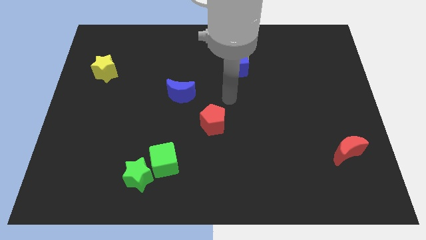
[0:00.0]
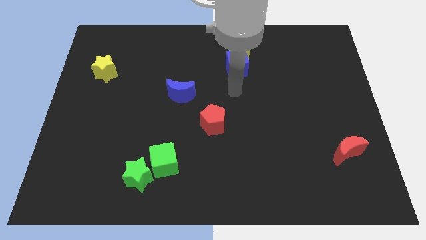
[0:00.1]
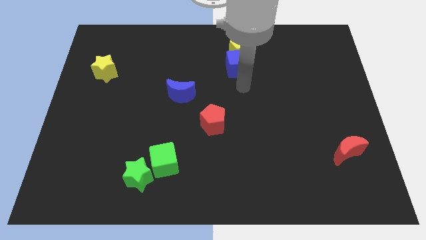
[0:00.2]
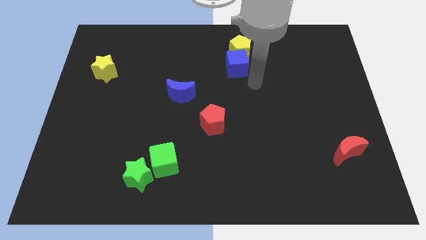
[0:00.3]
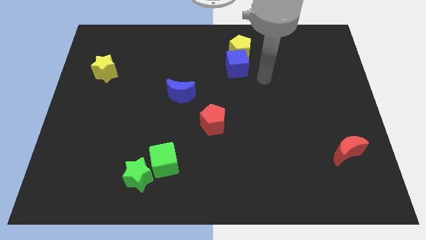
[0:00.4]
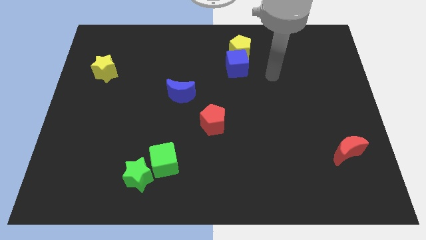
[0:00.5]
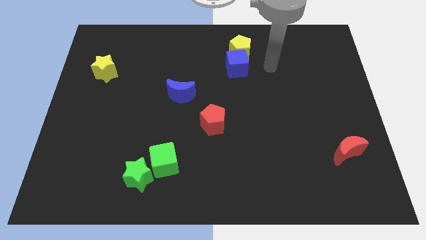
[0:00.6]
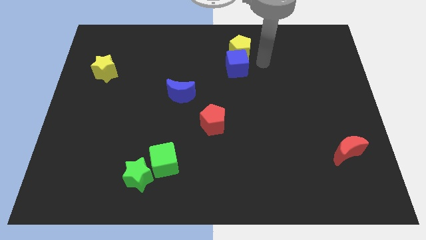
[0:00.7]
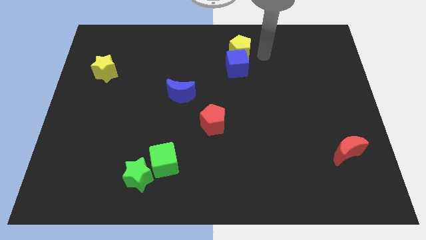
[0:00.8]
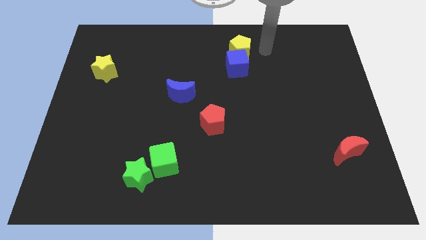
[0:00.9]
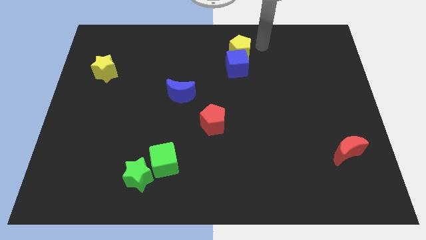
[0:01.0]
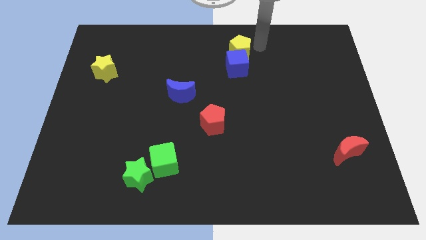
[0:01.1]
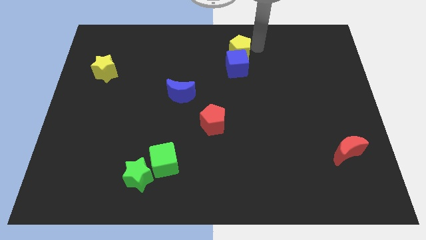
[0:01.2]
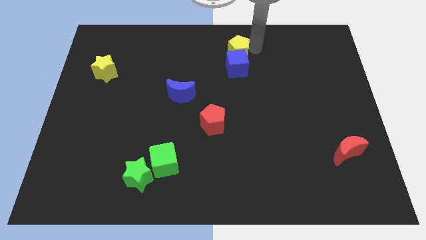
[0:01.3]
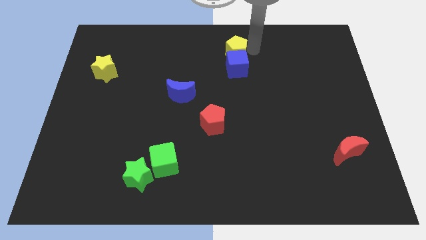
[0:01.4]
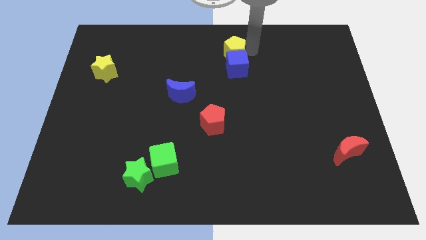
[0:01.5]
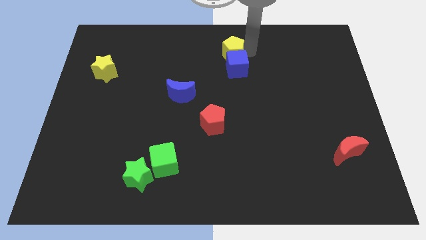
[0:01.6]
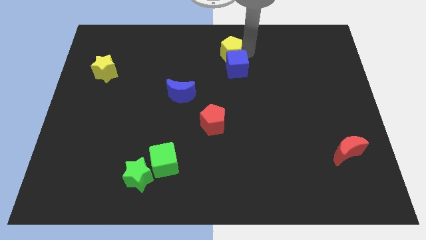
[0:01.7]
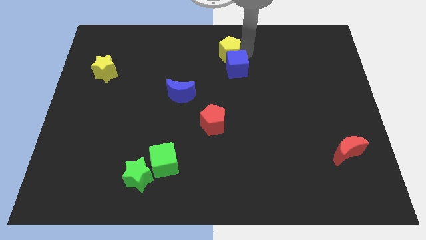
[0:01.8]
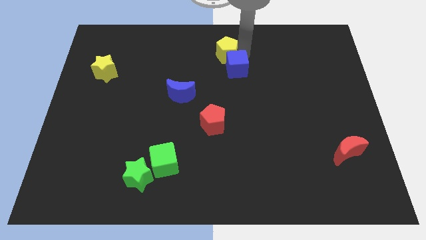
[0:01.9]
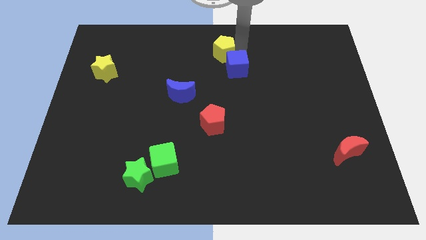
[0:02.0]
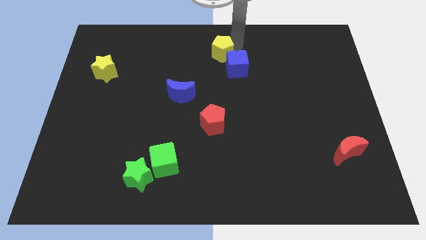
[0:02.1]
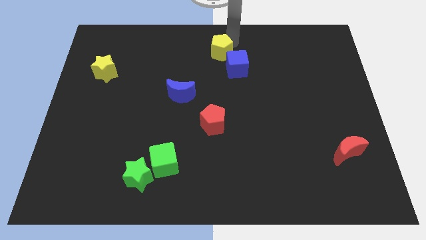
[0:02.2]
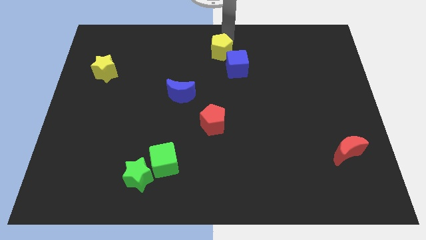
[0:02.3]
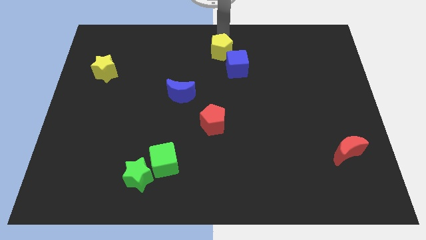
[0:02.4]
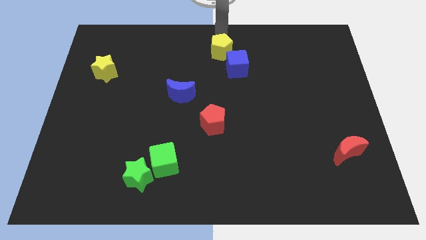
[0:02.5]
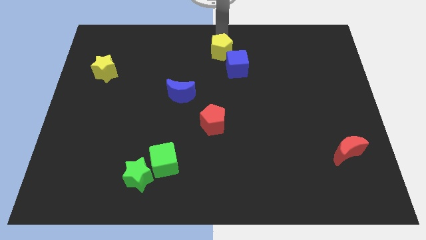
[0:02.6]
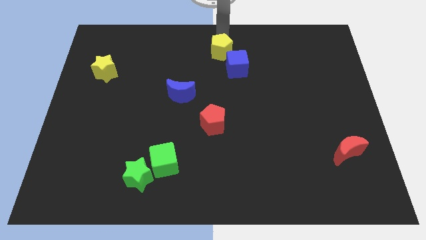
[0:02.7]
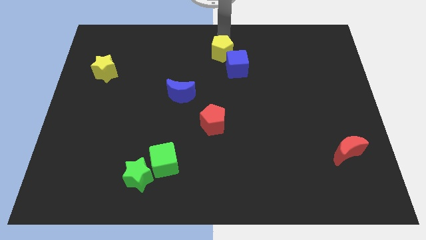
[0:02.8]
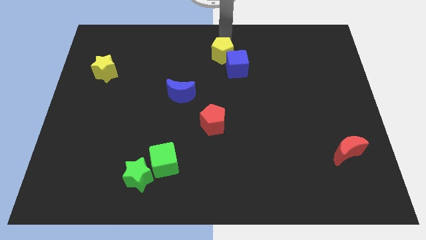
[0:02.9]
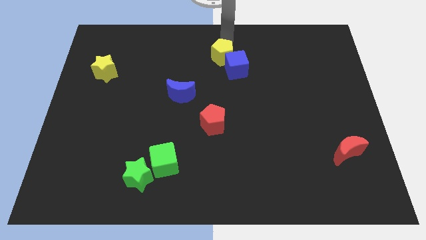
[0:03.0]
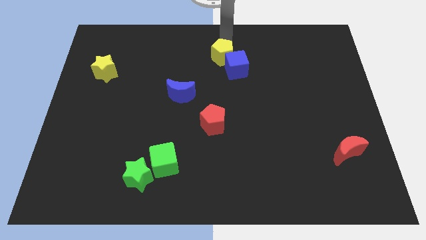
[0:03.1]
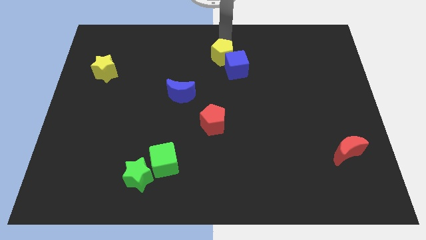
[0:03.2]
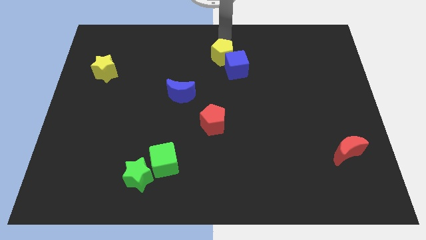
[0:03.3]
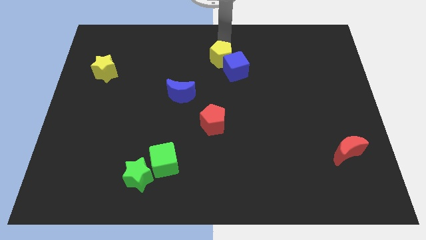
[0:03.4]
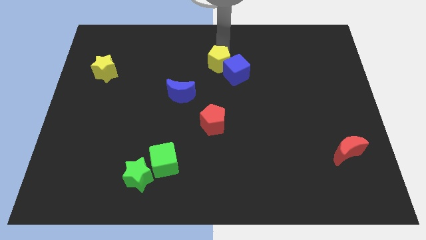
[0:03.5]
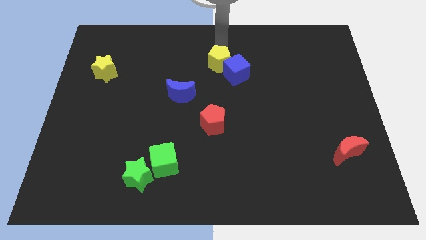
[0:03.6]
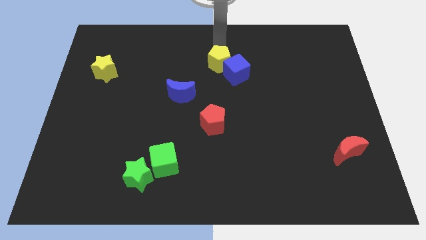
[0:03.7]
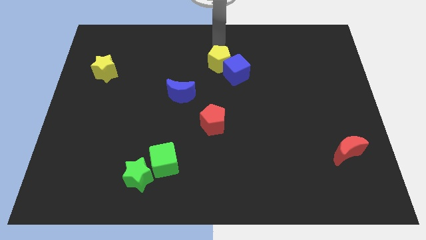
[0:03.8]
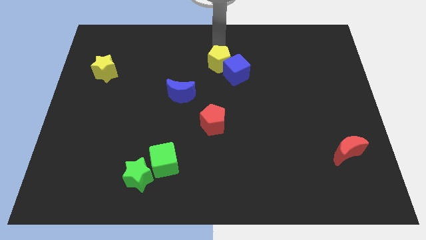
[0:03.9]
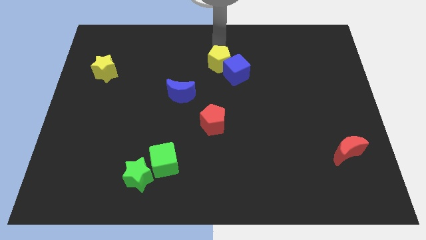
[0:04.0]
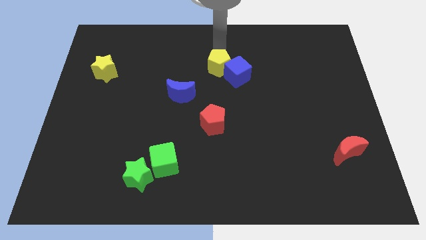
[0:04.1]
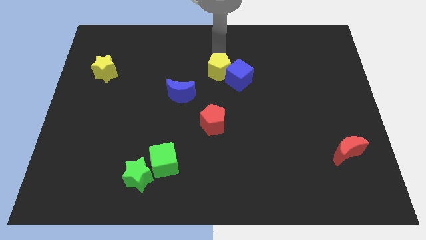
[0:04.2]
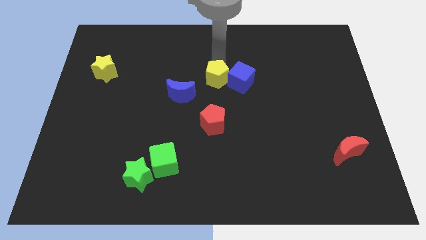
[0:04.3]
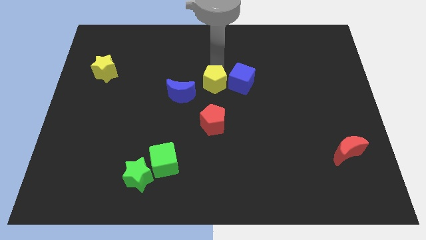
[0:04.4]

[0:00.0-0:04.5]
push the yellow pentagon to the right of the blue moon

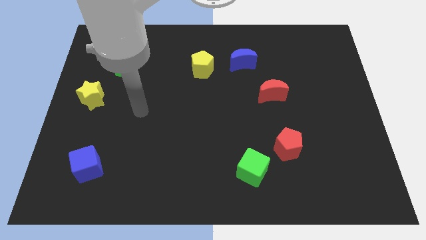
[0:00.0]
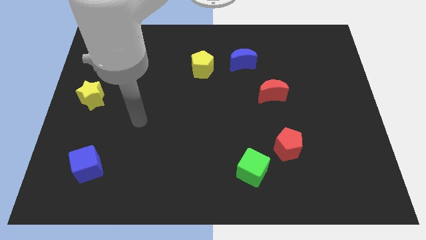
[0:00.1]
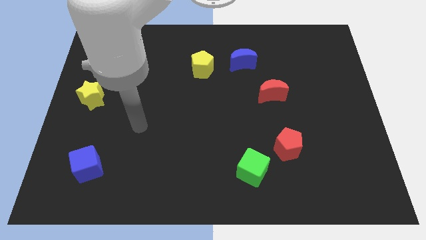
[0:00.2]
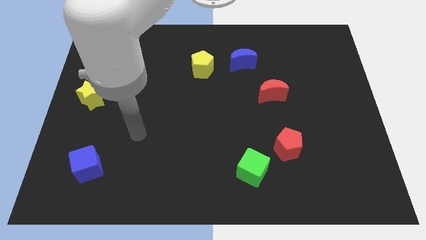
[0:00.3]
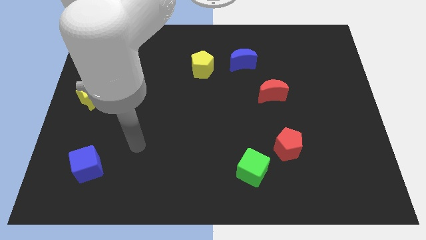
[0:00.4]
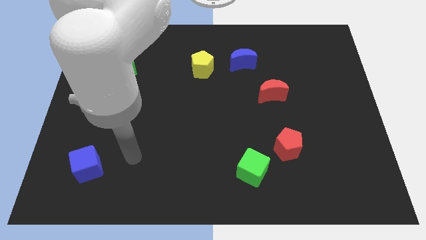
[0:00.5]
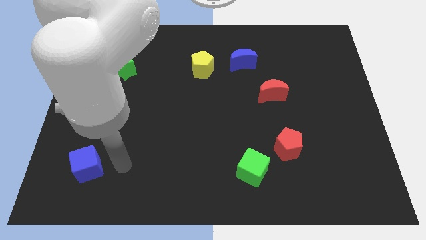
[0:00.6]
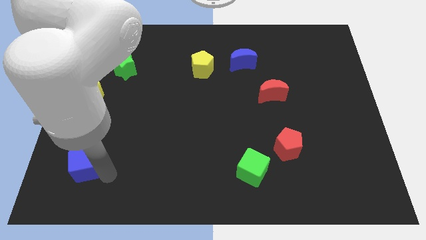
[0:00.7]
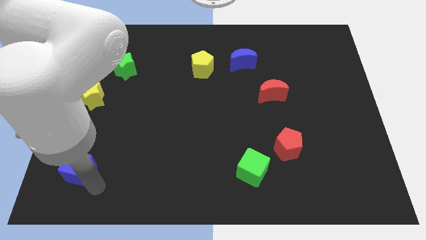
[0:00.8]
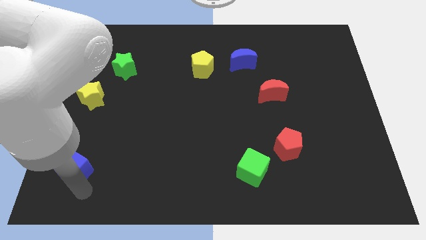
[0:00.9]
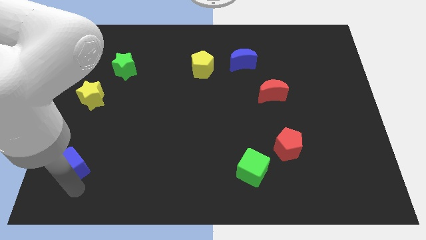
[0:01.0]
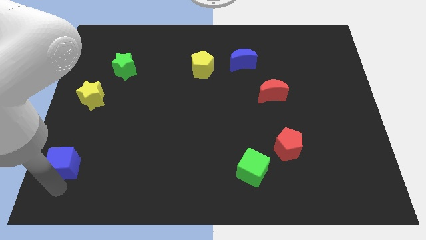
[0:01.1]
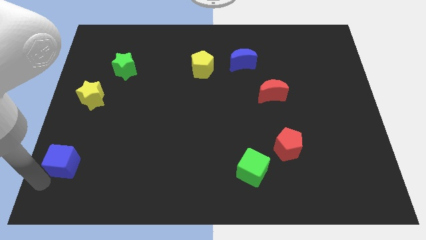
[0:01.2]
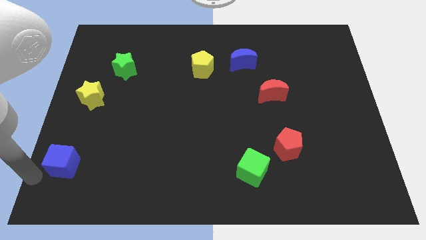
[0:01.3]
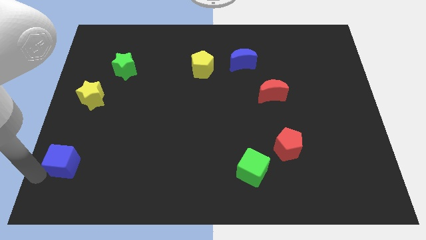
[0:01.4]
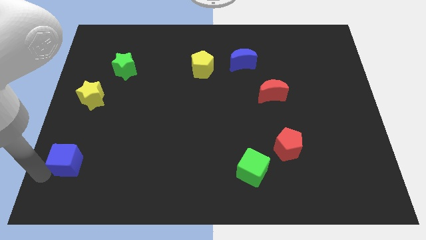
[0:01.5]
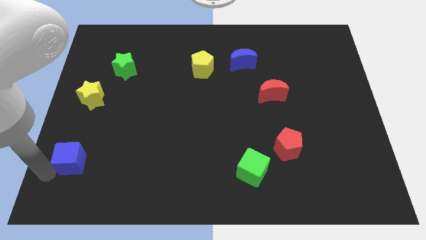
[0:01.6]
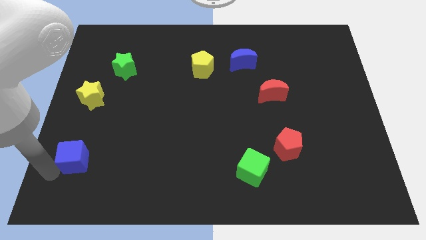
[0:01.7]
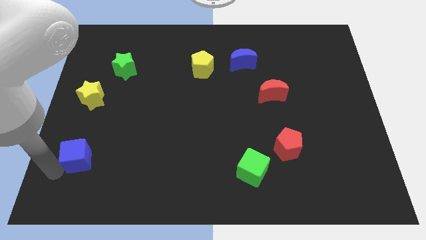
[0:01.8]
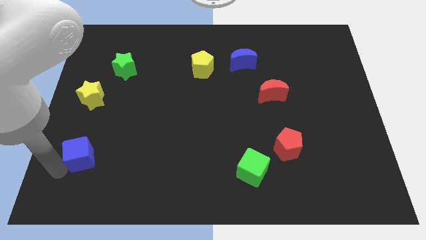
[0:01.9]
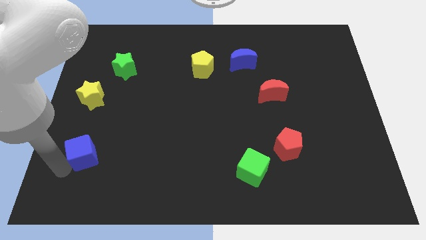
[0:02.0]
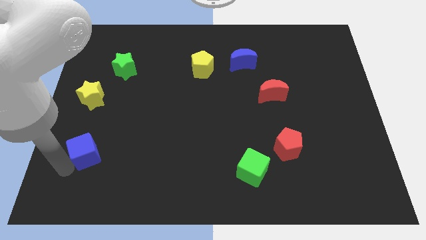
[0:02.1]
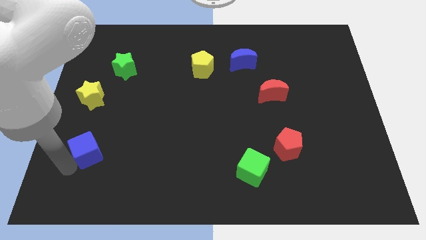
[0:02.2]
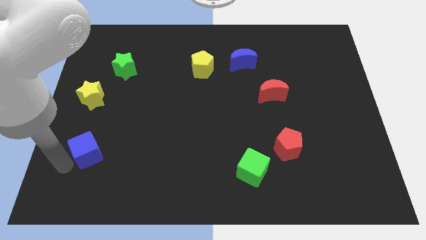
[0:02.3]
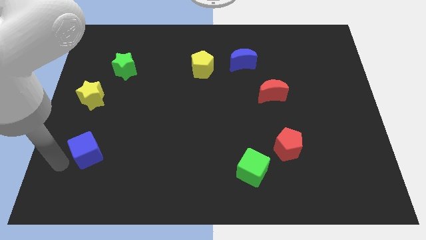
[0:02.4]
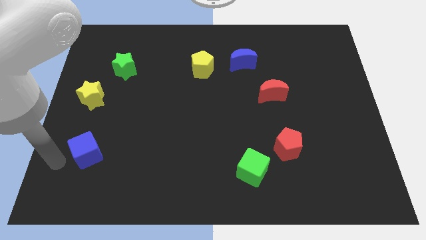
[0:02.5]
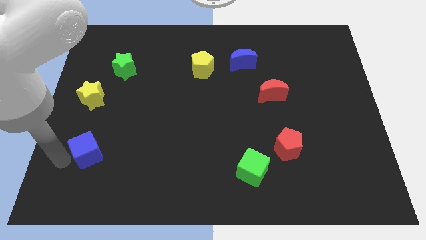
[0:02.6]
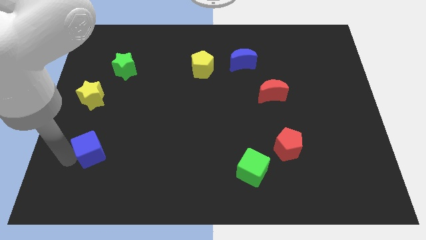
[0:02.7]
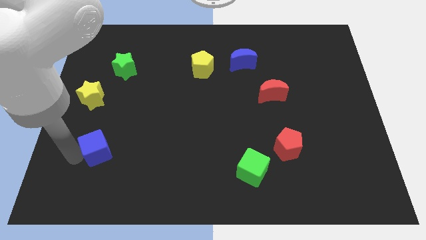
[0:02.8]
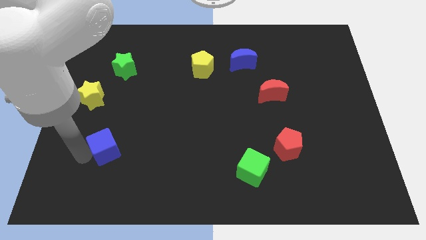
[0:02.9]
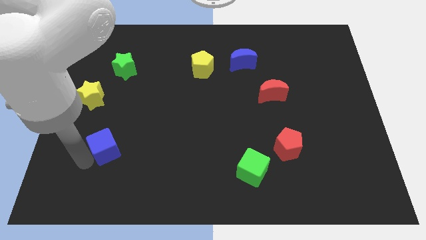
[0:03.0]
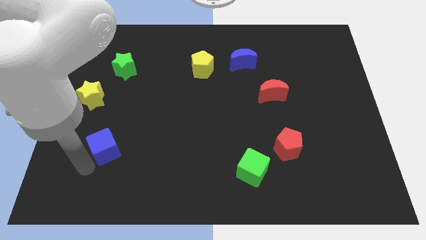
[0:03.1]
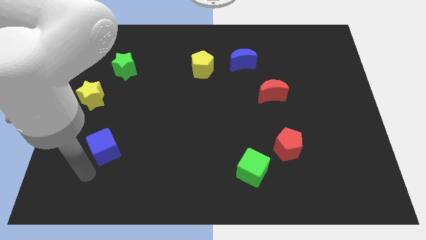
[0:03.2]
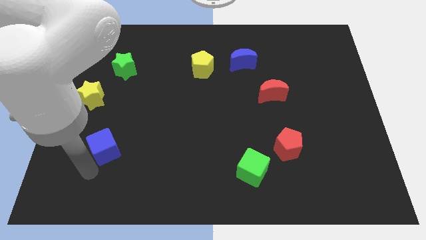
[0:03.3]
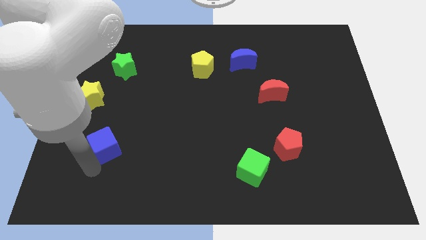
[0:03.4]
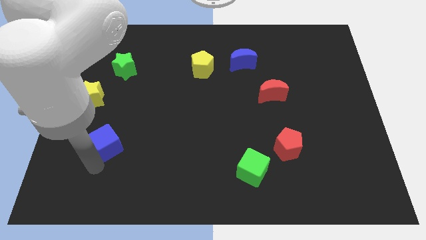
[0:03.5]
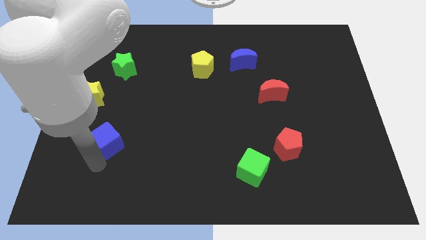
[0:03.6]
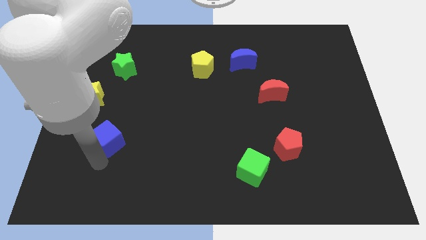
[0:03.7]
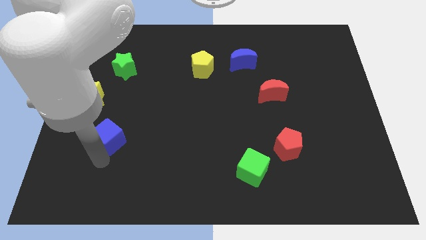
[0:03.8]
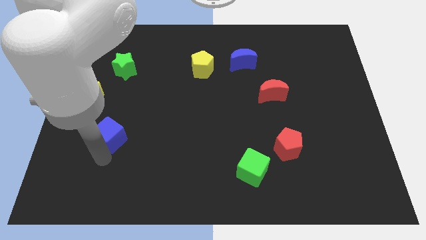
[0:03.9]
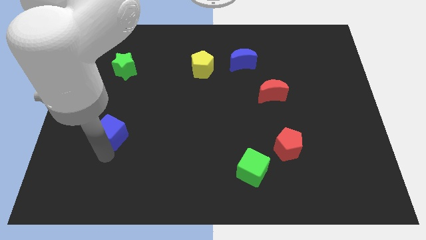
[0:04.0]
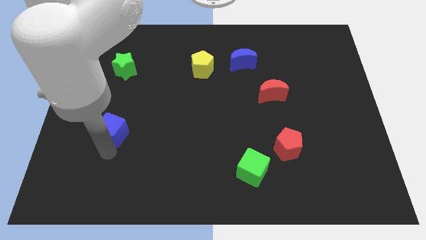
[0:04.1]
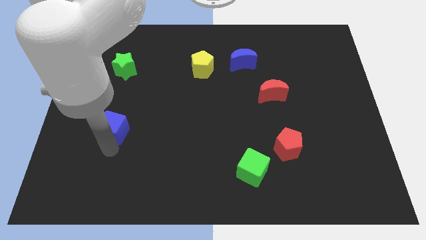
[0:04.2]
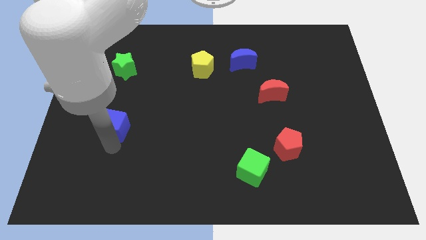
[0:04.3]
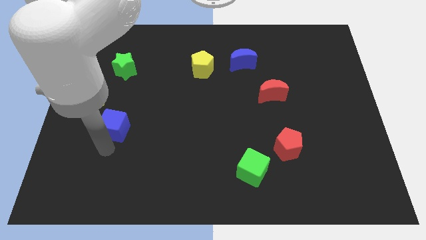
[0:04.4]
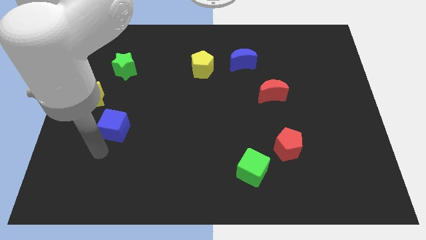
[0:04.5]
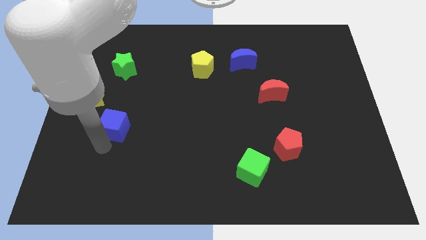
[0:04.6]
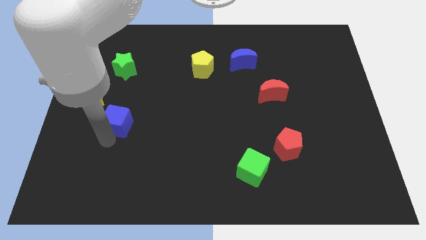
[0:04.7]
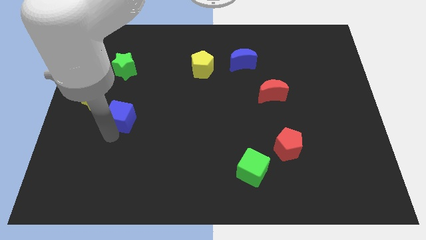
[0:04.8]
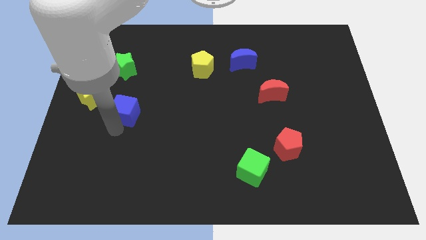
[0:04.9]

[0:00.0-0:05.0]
move the blue cube to the right of the yellow star
